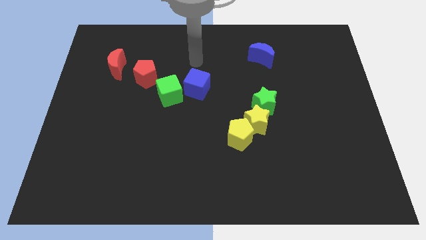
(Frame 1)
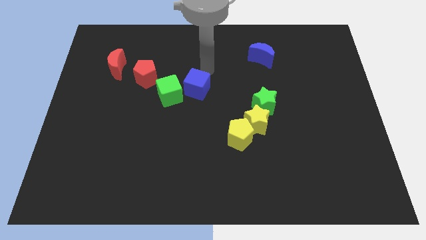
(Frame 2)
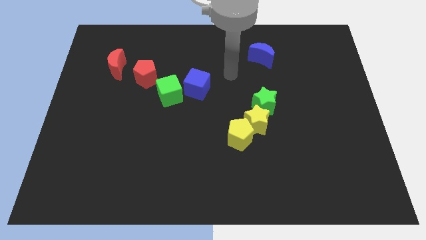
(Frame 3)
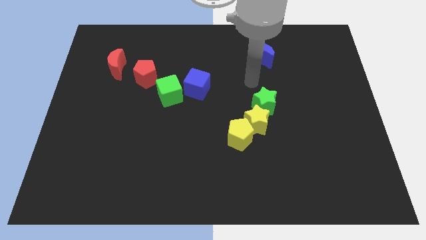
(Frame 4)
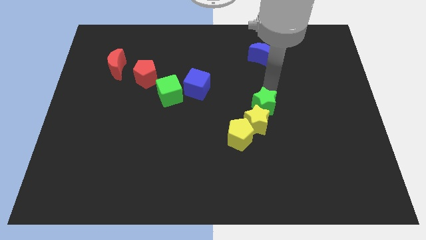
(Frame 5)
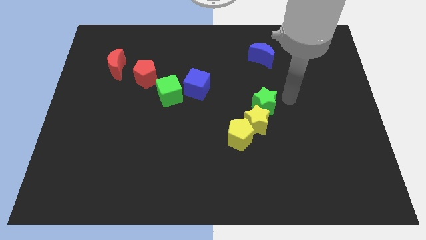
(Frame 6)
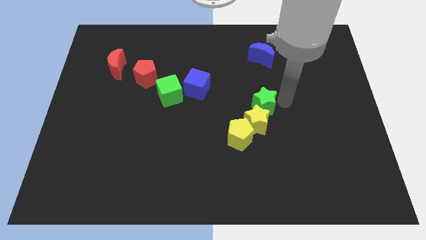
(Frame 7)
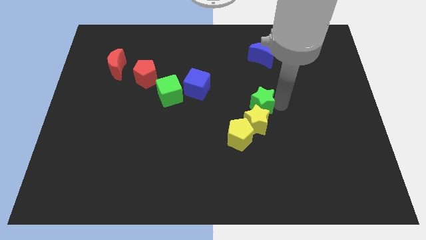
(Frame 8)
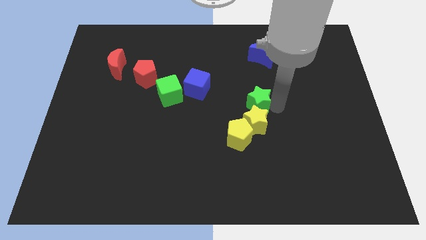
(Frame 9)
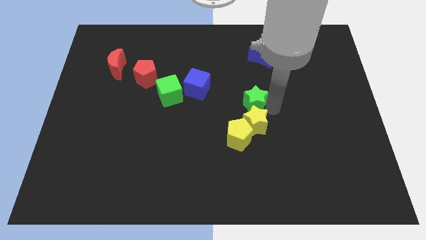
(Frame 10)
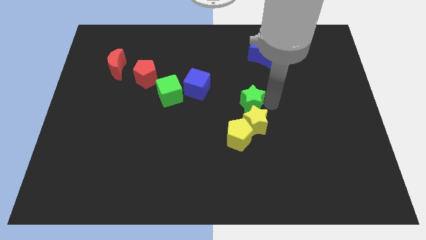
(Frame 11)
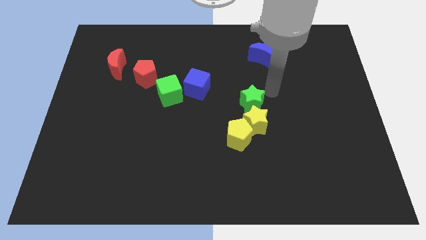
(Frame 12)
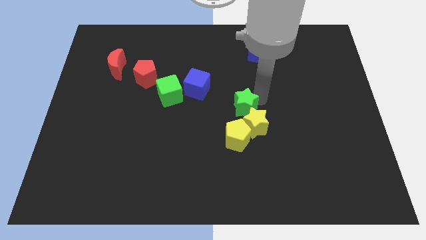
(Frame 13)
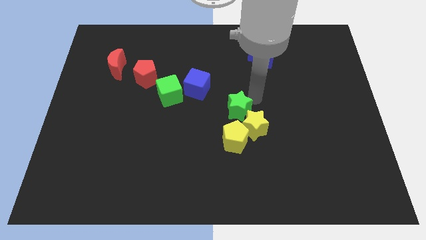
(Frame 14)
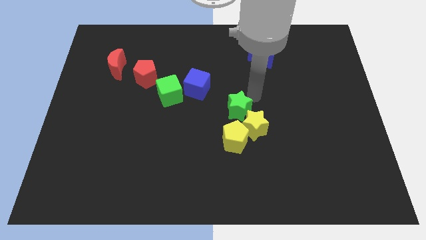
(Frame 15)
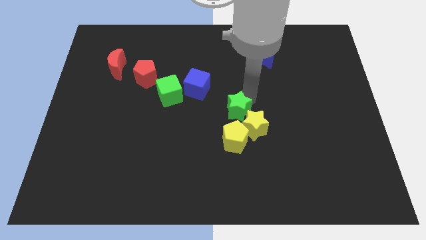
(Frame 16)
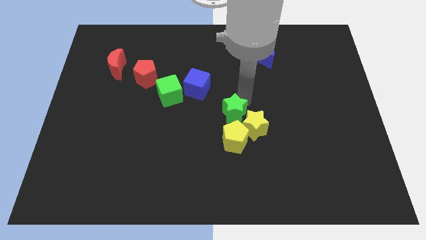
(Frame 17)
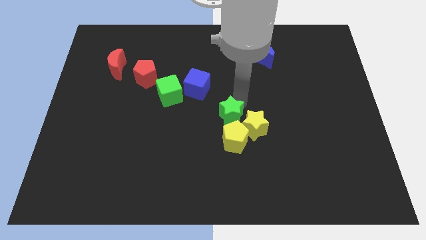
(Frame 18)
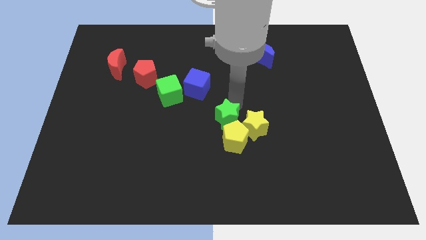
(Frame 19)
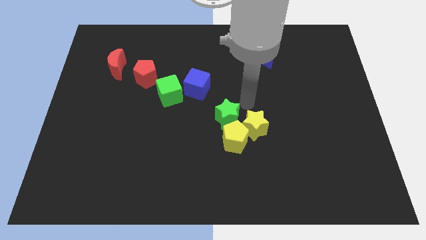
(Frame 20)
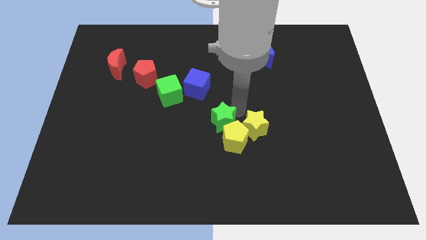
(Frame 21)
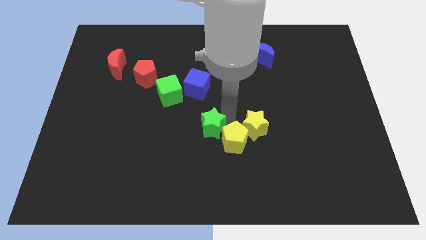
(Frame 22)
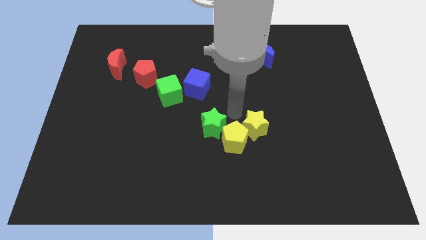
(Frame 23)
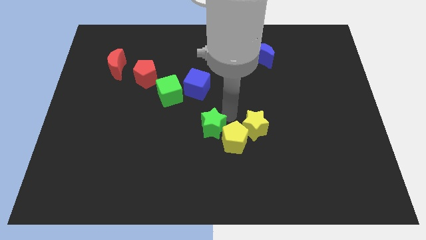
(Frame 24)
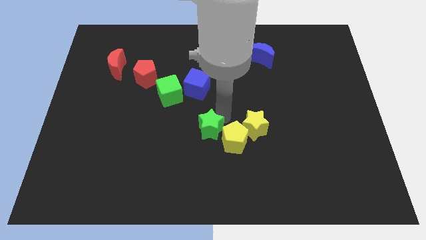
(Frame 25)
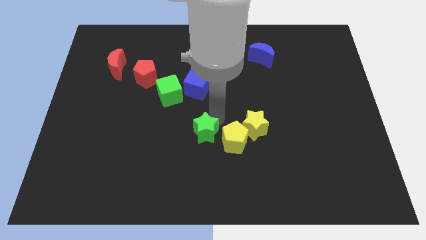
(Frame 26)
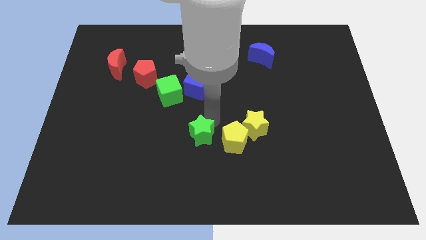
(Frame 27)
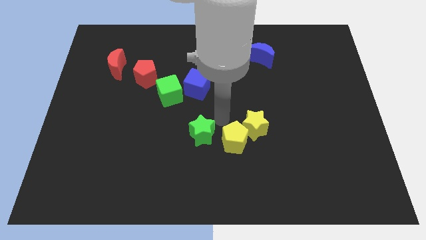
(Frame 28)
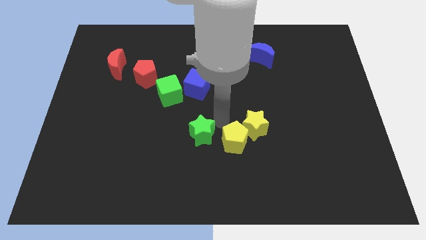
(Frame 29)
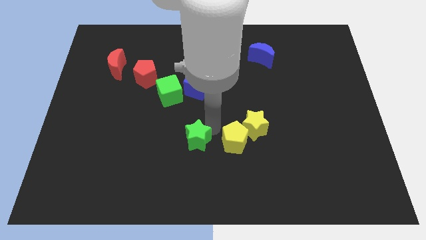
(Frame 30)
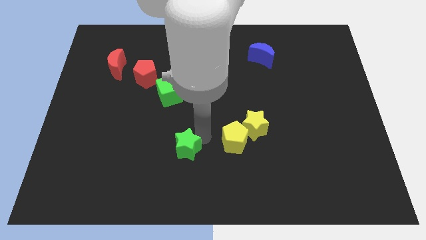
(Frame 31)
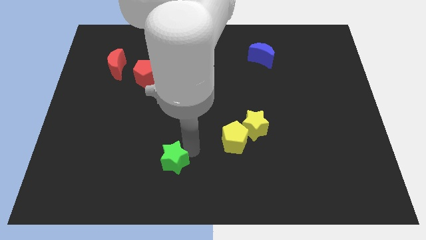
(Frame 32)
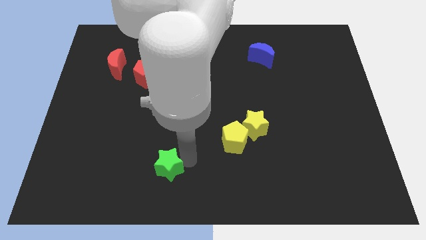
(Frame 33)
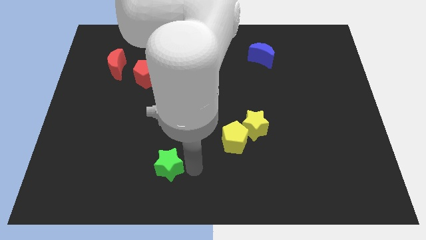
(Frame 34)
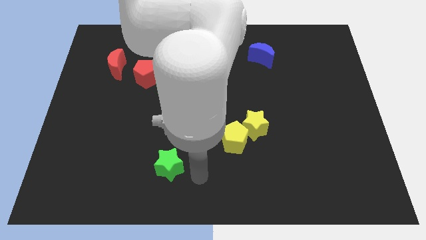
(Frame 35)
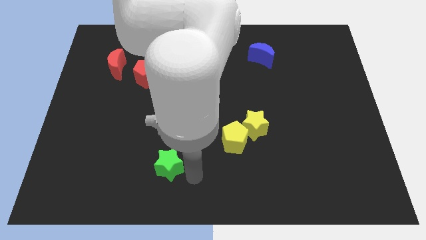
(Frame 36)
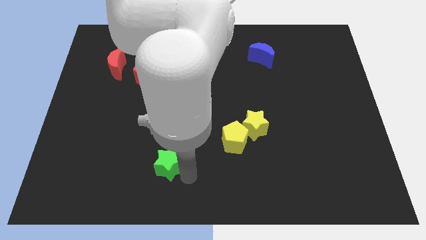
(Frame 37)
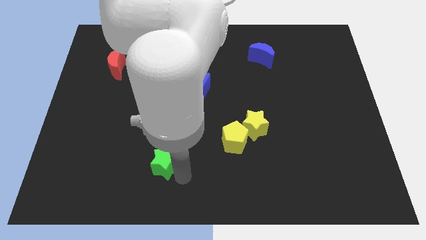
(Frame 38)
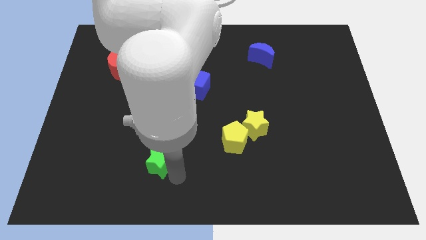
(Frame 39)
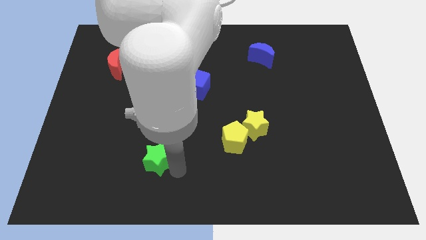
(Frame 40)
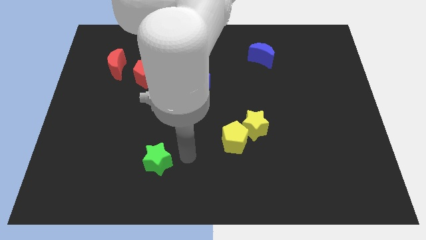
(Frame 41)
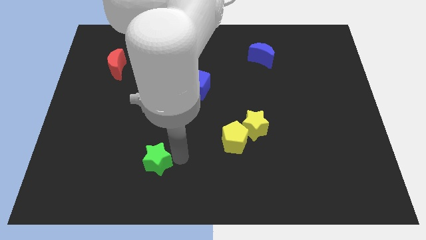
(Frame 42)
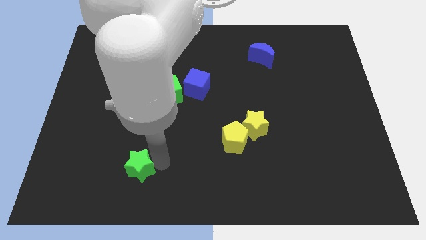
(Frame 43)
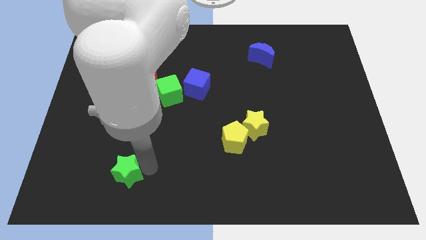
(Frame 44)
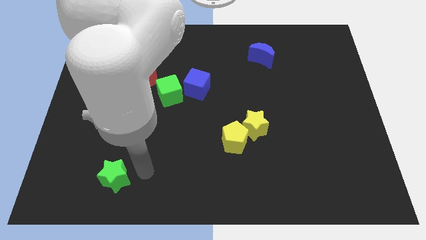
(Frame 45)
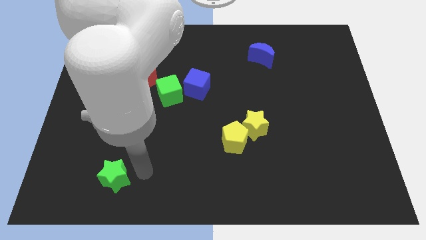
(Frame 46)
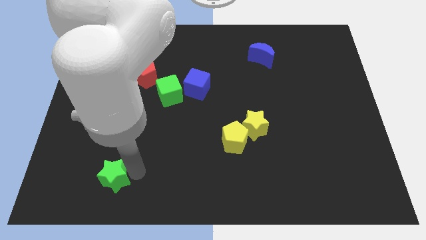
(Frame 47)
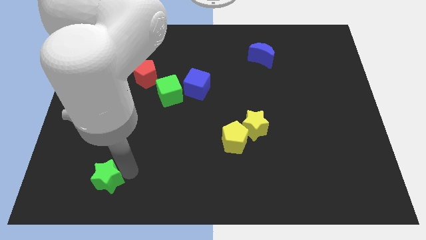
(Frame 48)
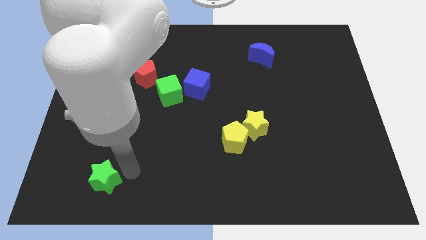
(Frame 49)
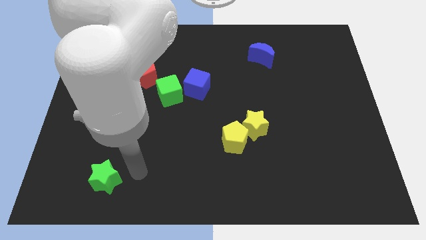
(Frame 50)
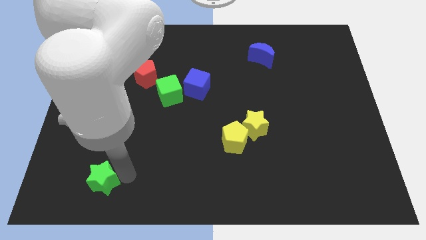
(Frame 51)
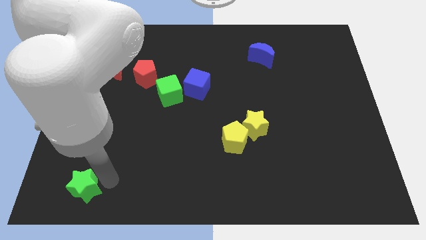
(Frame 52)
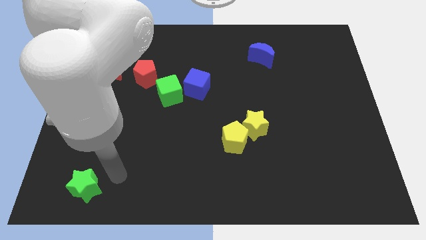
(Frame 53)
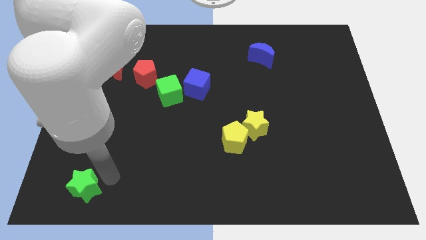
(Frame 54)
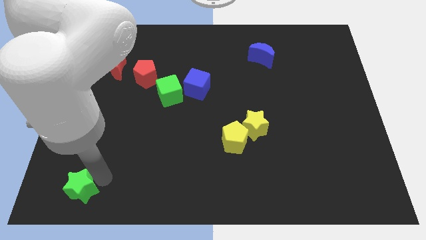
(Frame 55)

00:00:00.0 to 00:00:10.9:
slide the green star to the bottom left

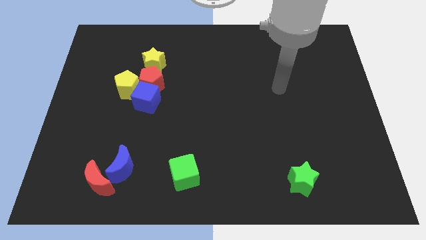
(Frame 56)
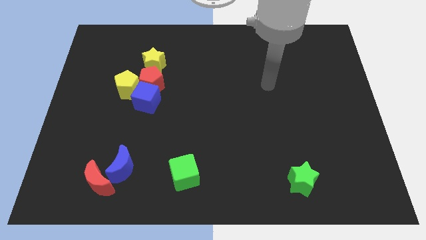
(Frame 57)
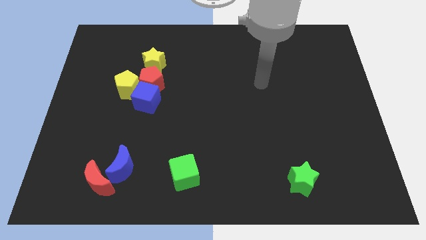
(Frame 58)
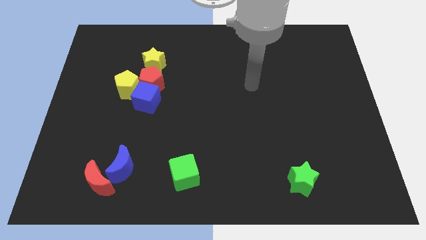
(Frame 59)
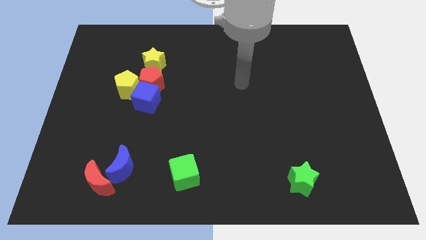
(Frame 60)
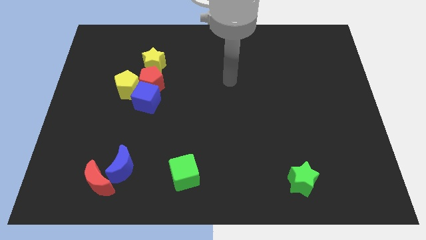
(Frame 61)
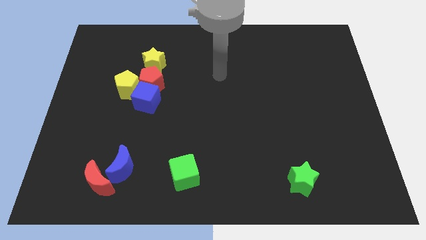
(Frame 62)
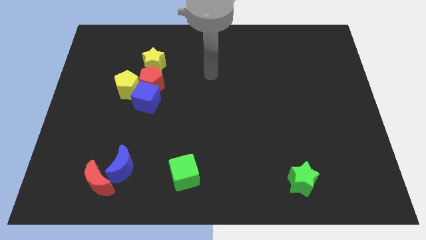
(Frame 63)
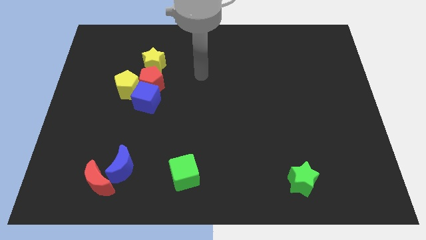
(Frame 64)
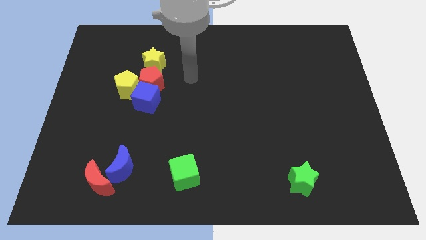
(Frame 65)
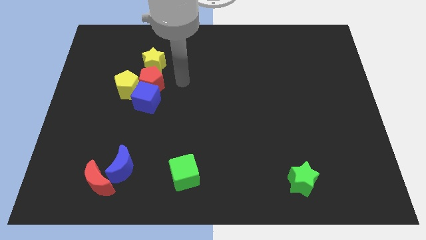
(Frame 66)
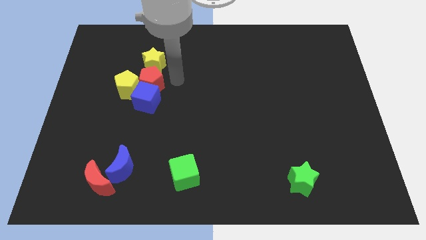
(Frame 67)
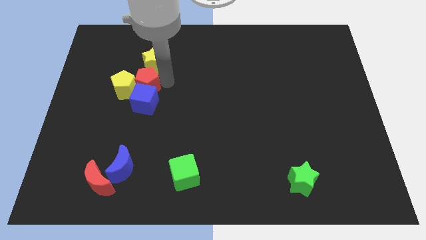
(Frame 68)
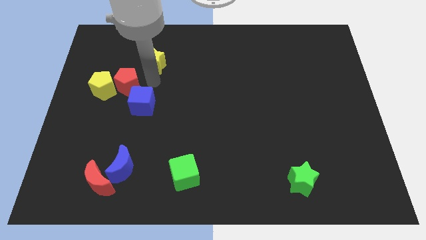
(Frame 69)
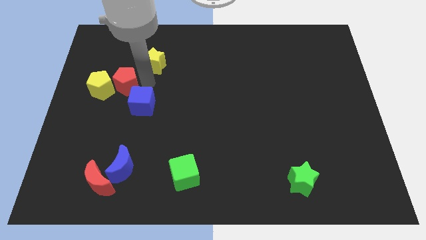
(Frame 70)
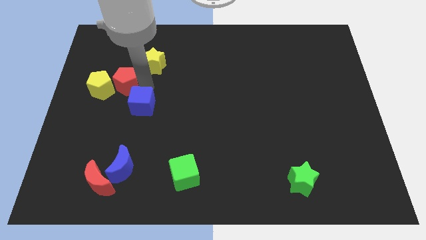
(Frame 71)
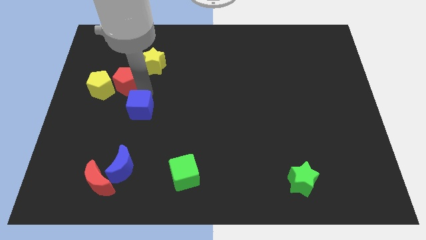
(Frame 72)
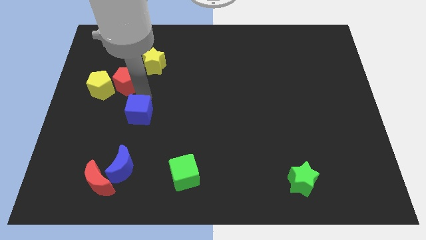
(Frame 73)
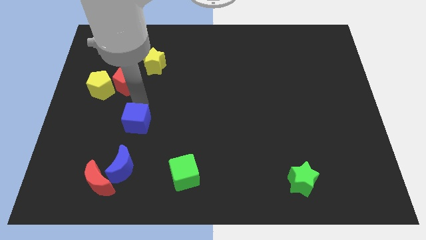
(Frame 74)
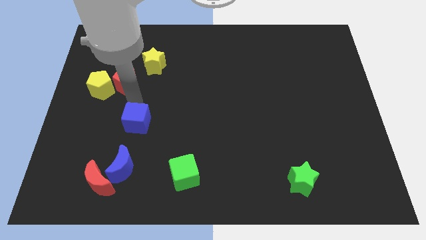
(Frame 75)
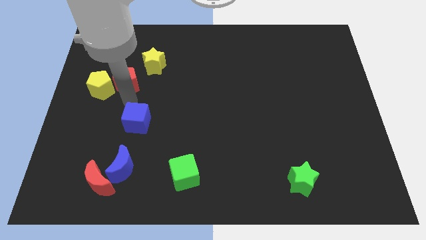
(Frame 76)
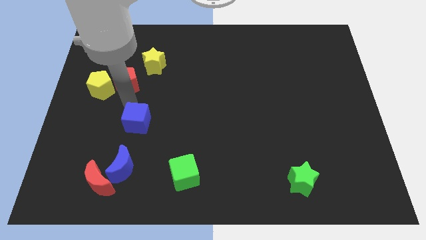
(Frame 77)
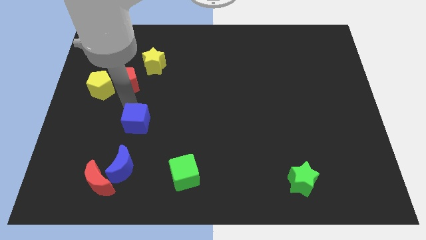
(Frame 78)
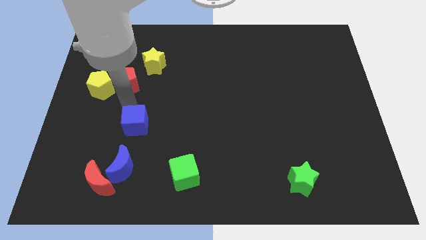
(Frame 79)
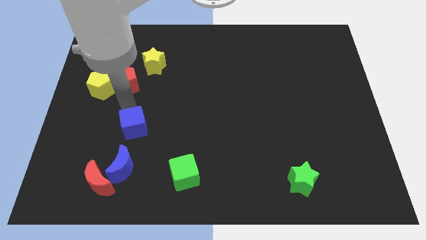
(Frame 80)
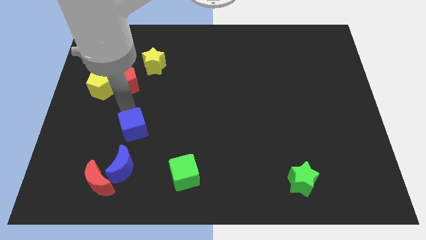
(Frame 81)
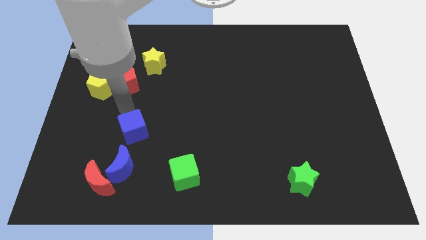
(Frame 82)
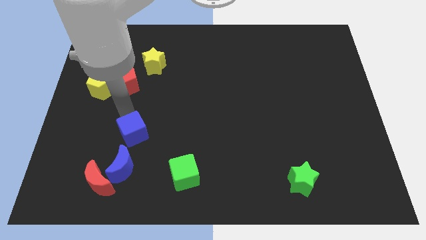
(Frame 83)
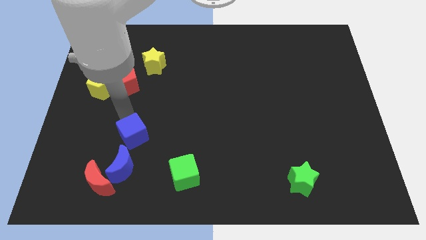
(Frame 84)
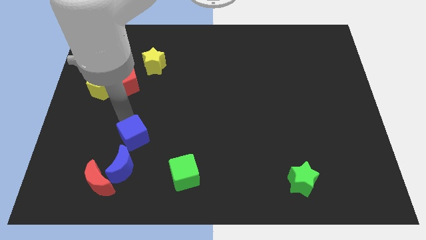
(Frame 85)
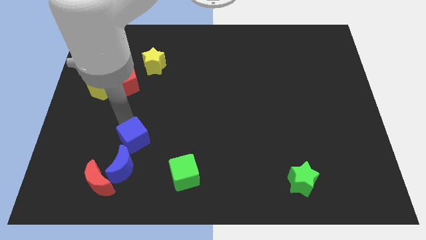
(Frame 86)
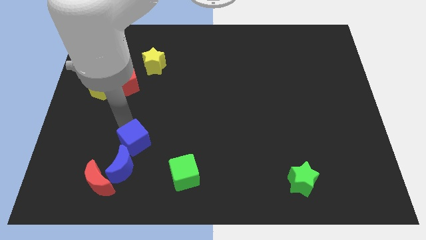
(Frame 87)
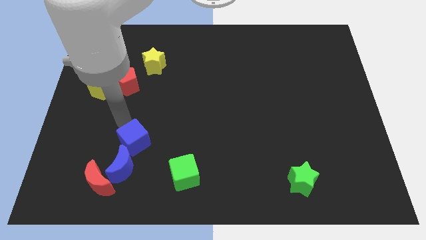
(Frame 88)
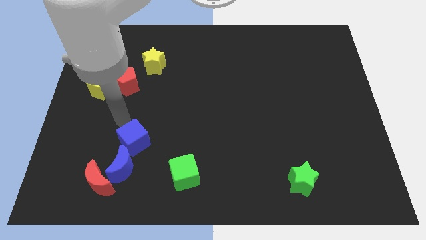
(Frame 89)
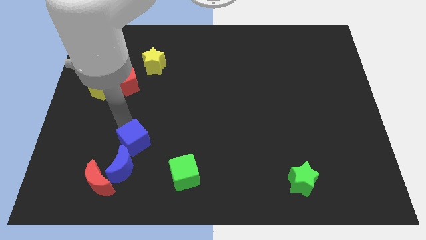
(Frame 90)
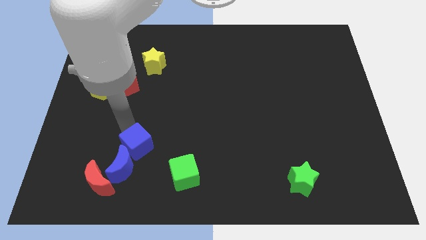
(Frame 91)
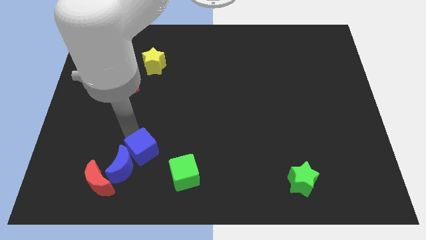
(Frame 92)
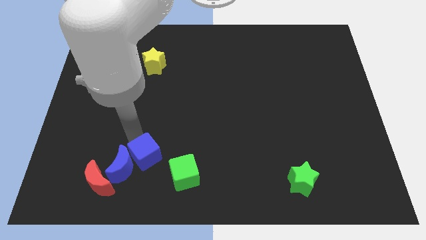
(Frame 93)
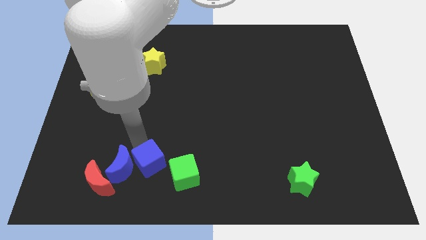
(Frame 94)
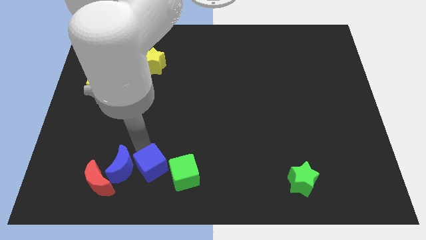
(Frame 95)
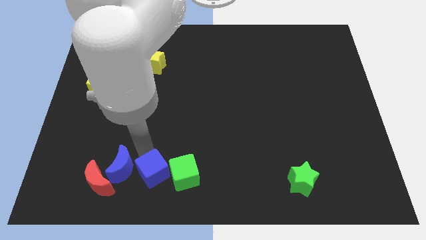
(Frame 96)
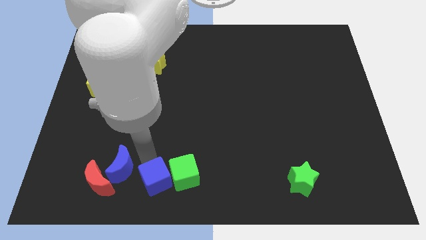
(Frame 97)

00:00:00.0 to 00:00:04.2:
move the blue cube to the bottom side
